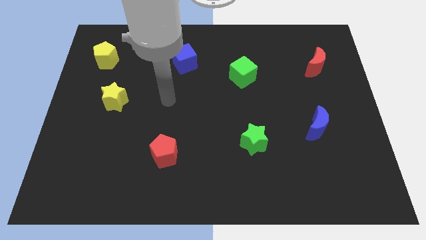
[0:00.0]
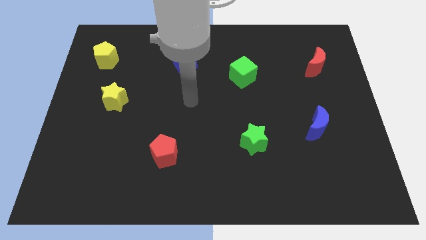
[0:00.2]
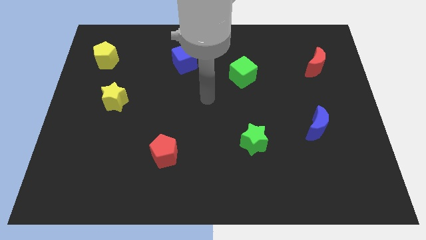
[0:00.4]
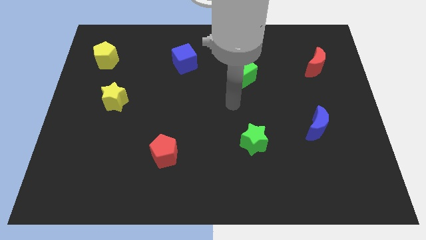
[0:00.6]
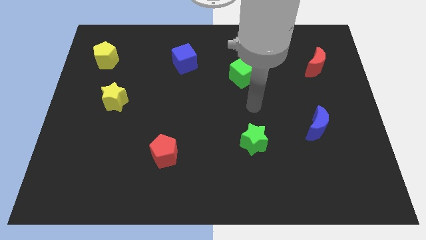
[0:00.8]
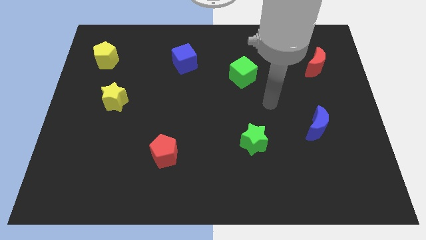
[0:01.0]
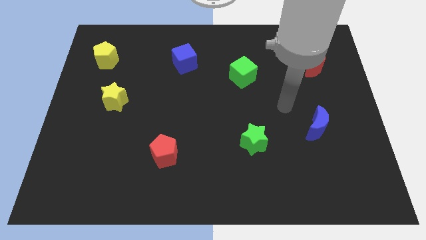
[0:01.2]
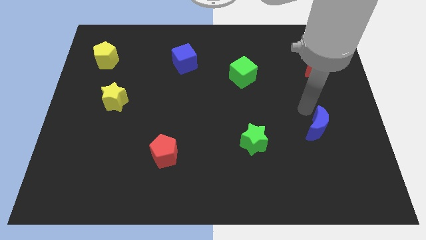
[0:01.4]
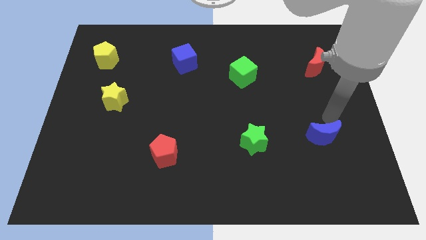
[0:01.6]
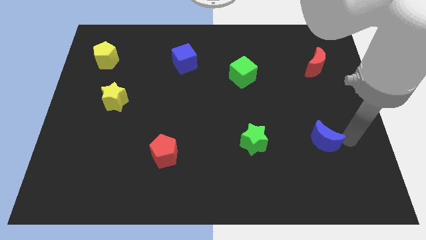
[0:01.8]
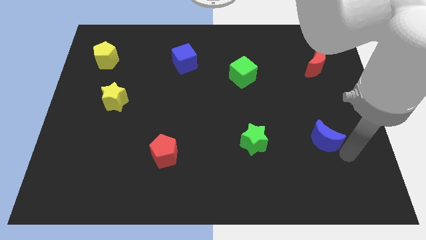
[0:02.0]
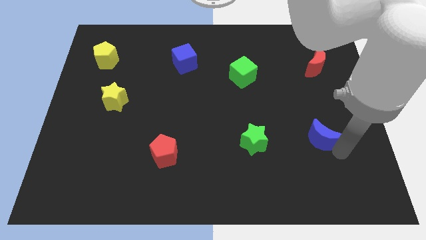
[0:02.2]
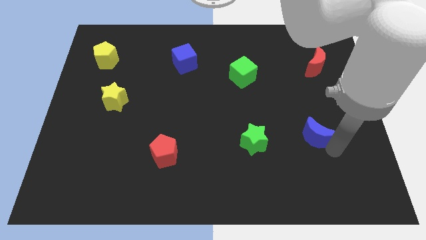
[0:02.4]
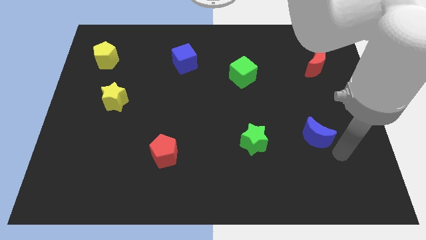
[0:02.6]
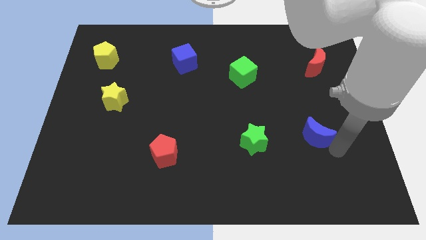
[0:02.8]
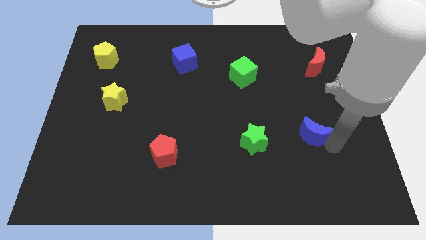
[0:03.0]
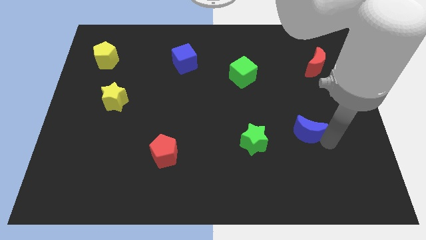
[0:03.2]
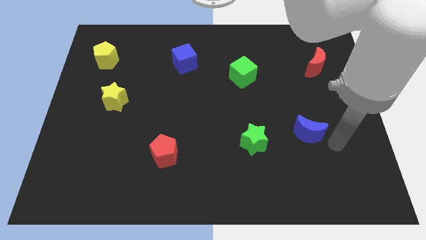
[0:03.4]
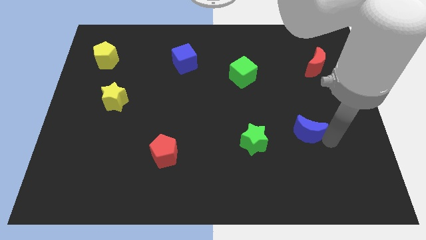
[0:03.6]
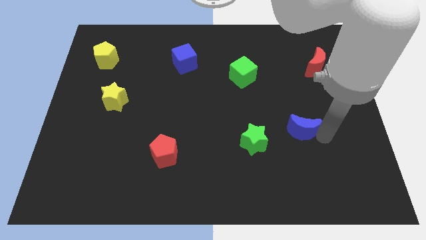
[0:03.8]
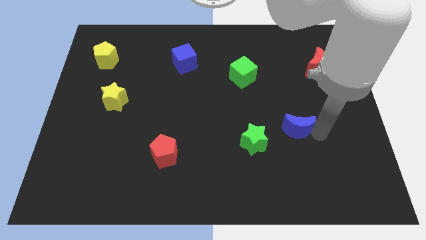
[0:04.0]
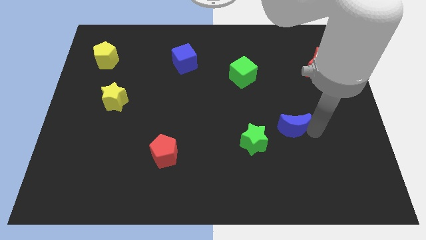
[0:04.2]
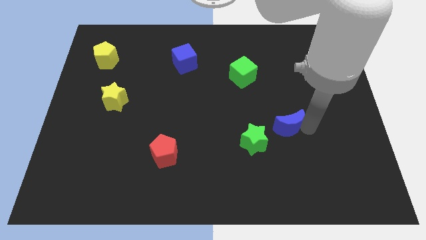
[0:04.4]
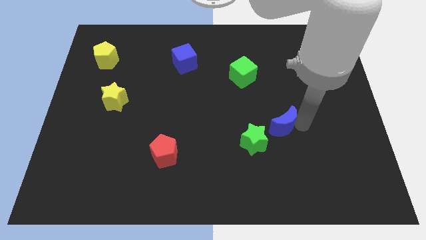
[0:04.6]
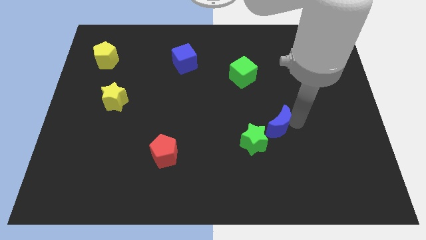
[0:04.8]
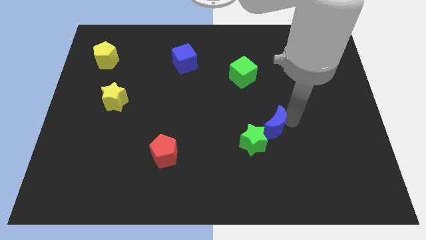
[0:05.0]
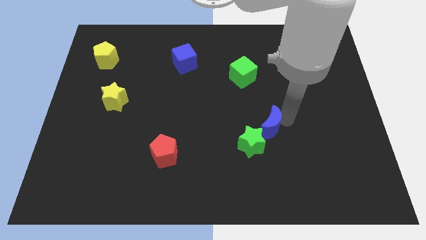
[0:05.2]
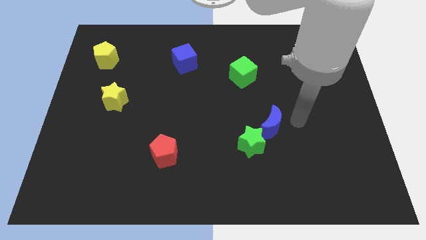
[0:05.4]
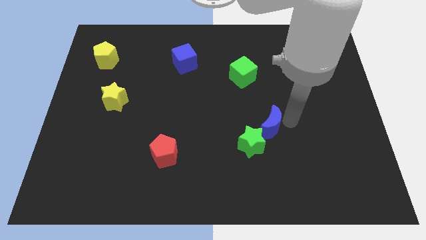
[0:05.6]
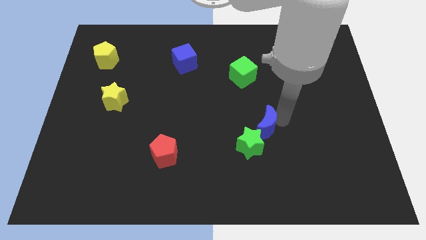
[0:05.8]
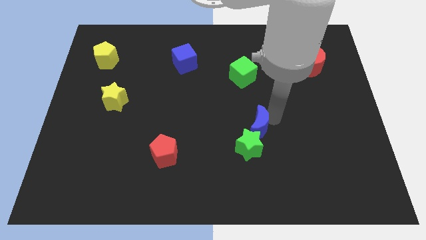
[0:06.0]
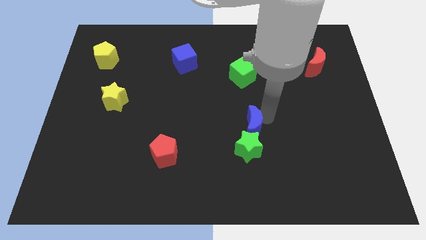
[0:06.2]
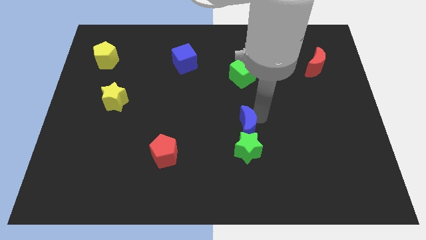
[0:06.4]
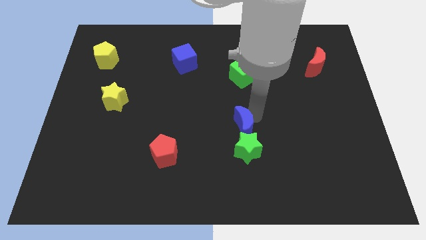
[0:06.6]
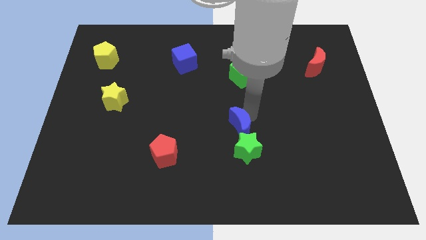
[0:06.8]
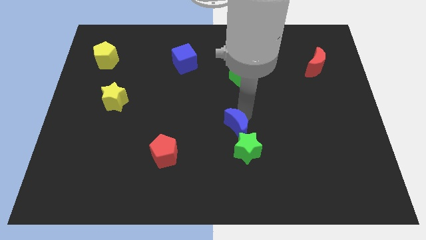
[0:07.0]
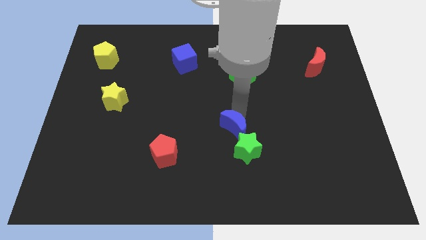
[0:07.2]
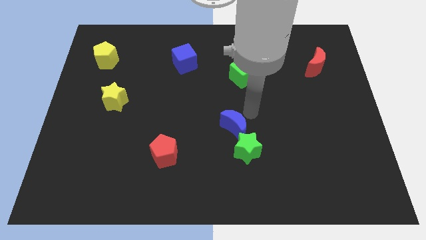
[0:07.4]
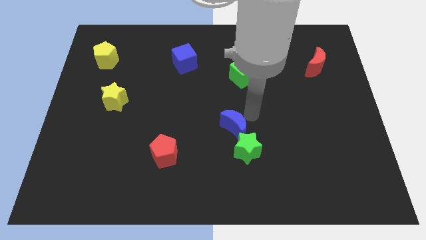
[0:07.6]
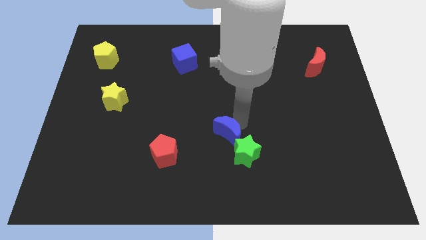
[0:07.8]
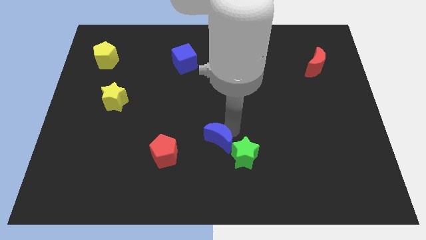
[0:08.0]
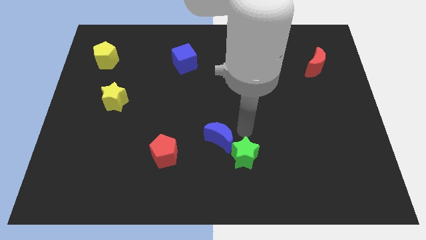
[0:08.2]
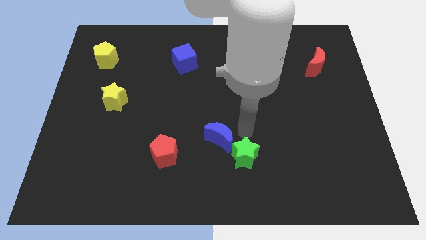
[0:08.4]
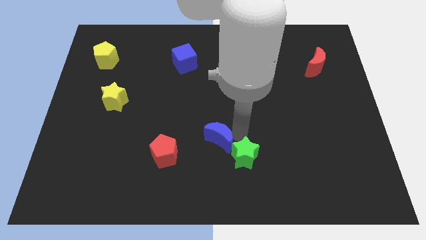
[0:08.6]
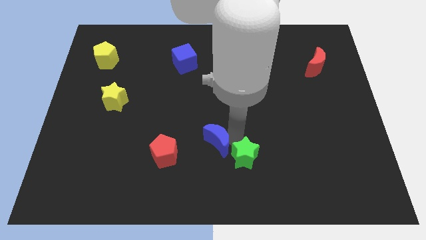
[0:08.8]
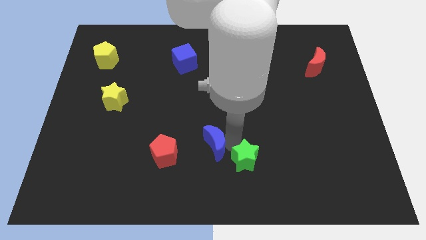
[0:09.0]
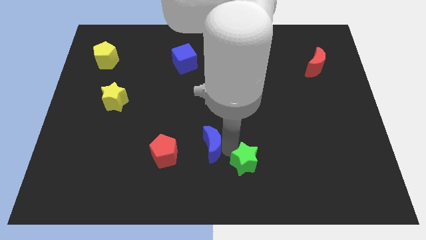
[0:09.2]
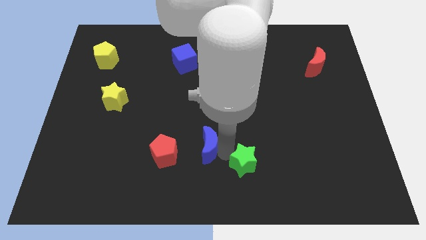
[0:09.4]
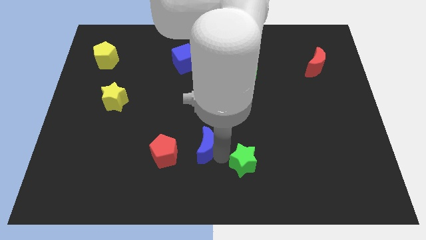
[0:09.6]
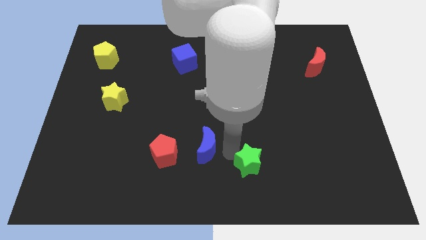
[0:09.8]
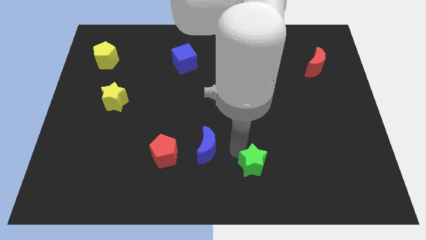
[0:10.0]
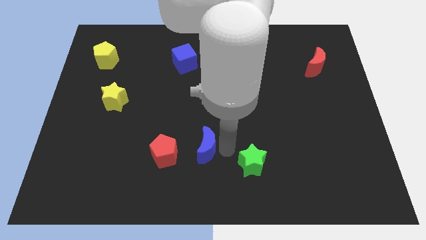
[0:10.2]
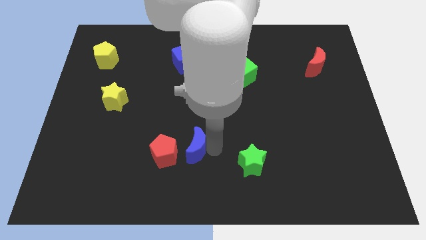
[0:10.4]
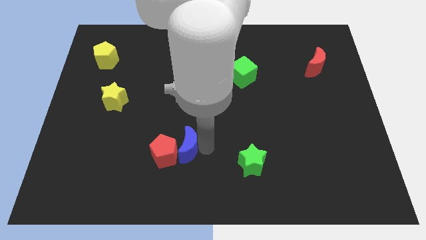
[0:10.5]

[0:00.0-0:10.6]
put the blue moon close to the red pentagon

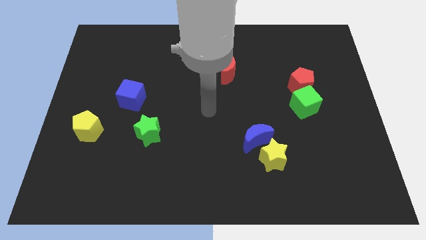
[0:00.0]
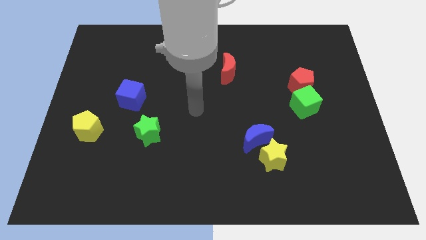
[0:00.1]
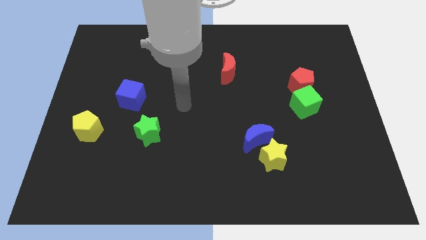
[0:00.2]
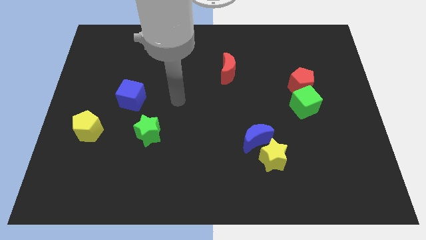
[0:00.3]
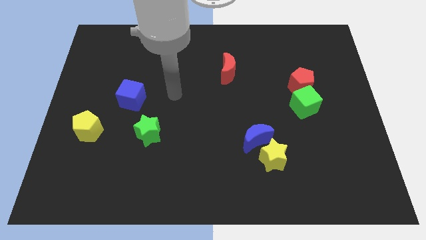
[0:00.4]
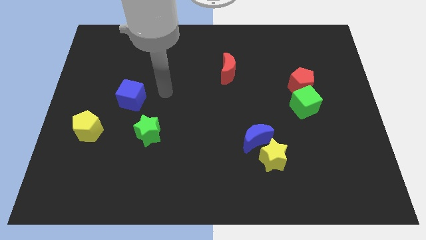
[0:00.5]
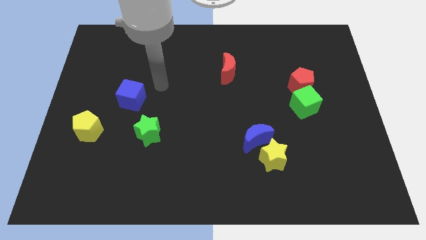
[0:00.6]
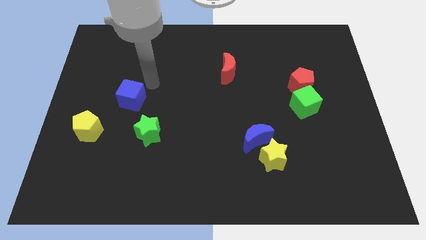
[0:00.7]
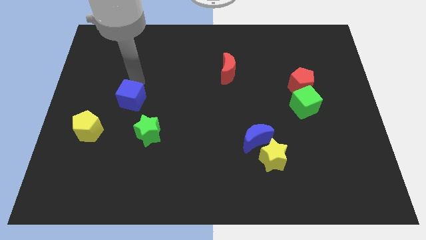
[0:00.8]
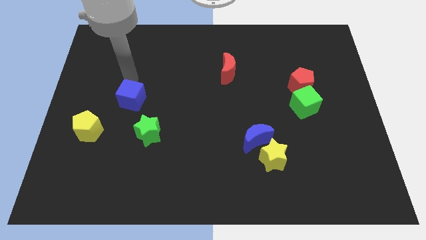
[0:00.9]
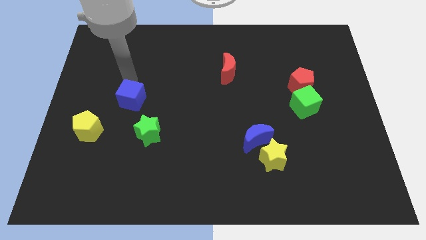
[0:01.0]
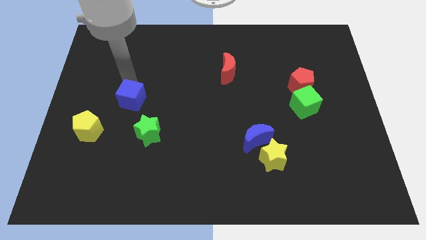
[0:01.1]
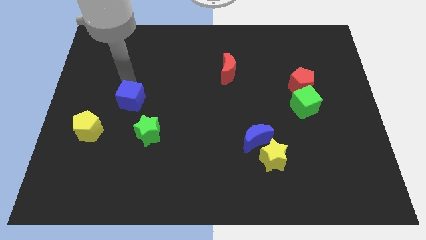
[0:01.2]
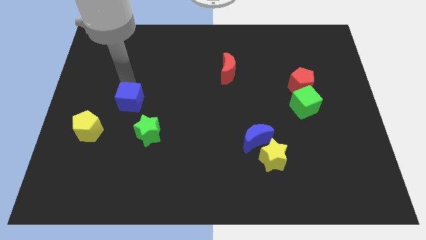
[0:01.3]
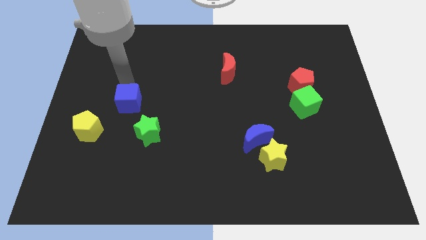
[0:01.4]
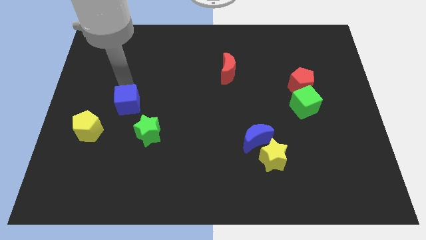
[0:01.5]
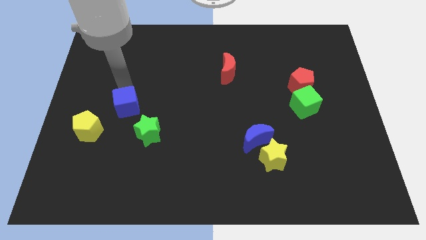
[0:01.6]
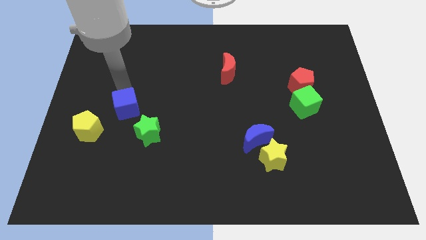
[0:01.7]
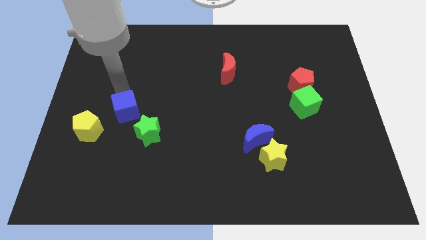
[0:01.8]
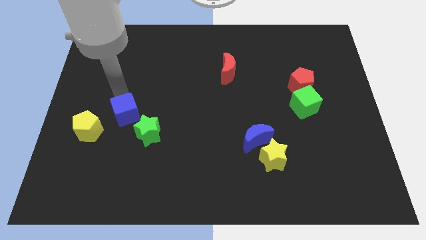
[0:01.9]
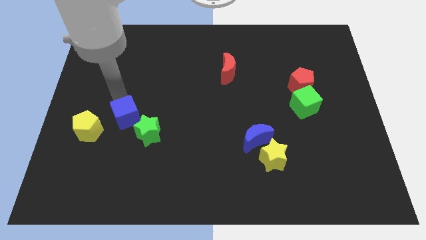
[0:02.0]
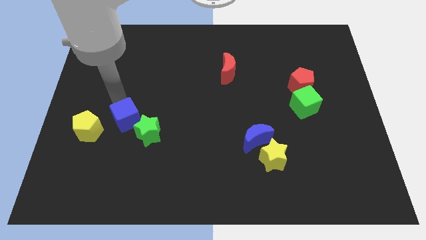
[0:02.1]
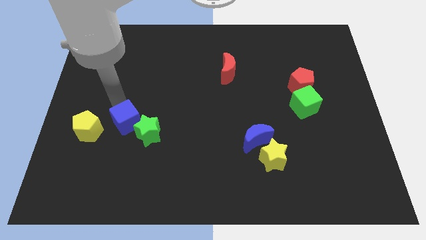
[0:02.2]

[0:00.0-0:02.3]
put the blue cube next to the green star
